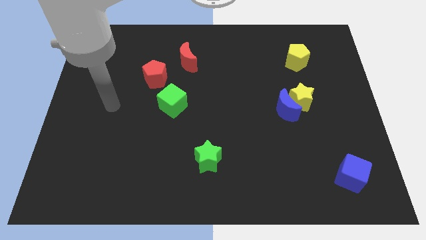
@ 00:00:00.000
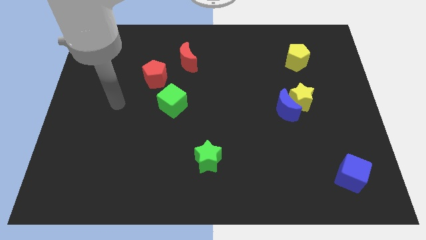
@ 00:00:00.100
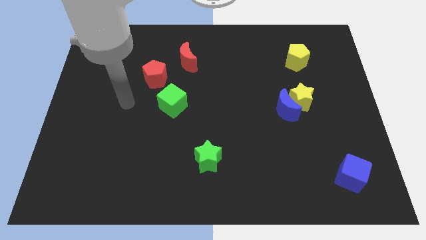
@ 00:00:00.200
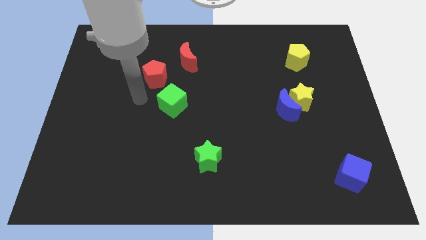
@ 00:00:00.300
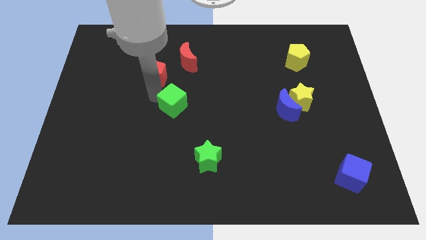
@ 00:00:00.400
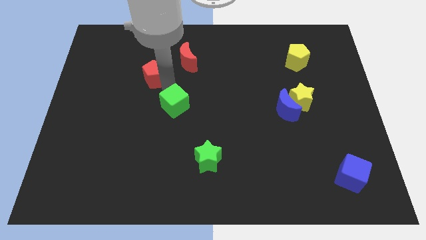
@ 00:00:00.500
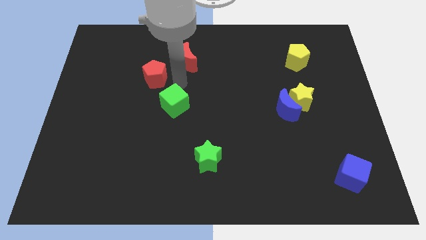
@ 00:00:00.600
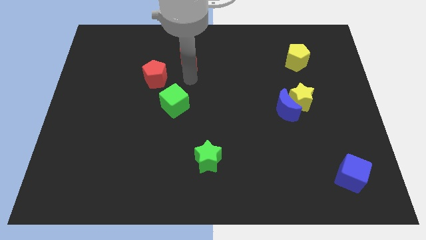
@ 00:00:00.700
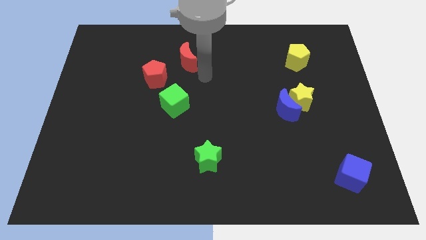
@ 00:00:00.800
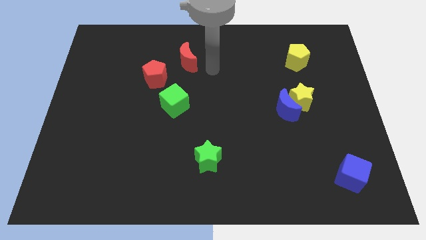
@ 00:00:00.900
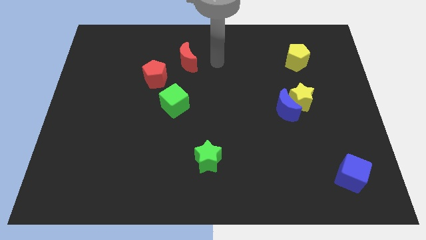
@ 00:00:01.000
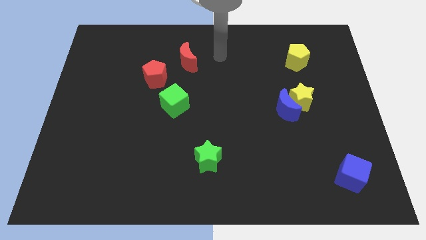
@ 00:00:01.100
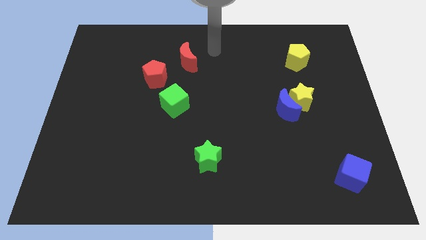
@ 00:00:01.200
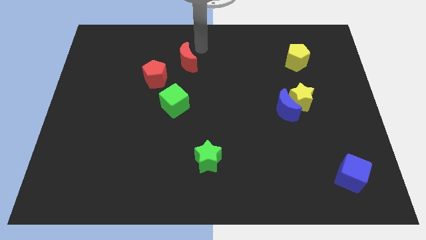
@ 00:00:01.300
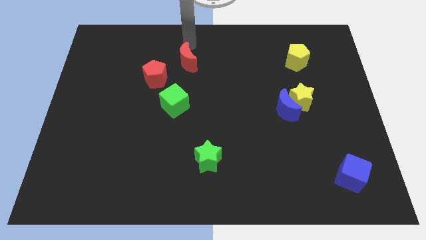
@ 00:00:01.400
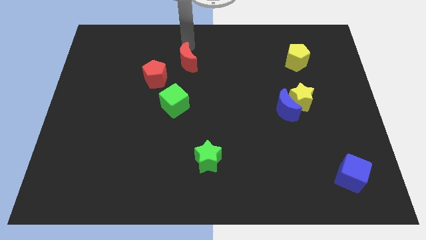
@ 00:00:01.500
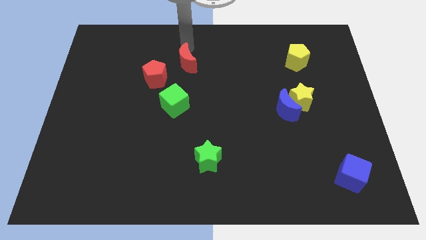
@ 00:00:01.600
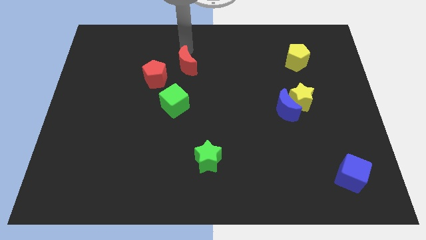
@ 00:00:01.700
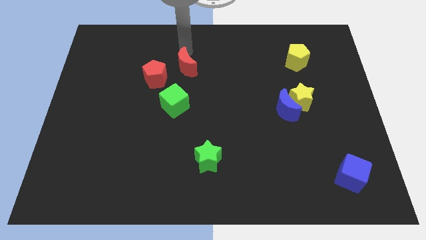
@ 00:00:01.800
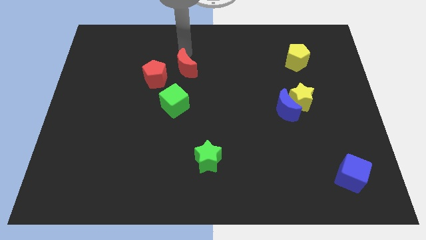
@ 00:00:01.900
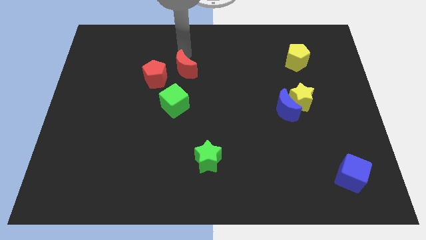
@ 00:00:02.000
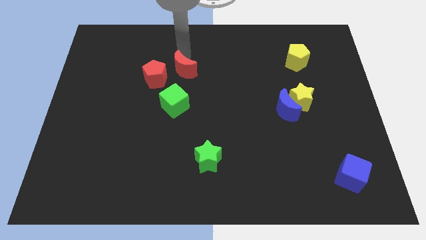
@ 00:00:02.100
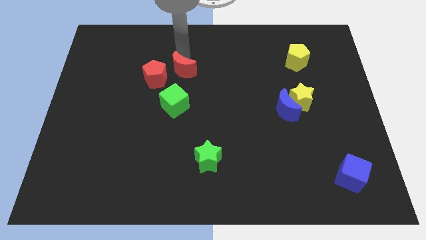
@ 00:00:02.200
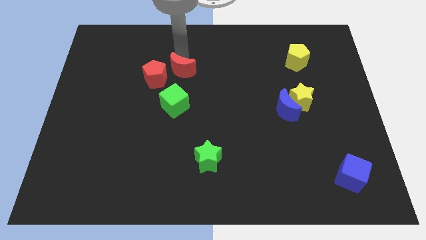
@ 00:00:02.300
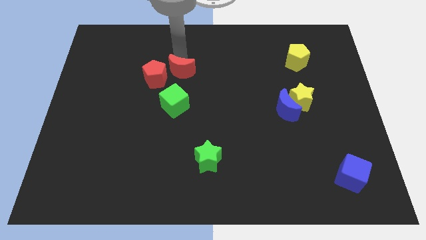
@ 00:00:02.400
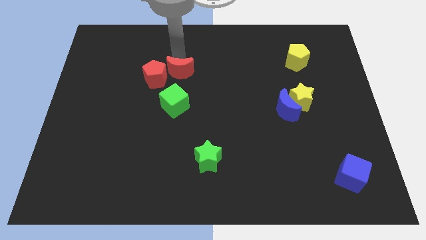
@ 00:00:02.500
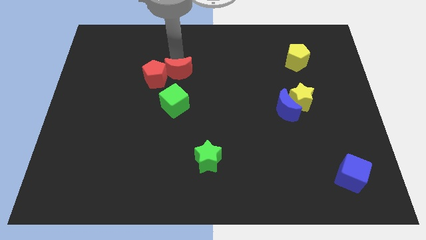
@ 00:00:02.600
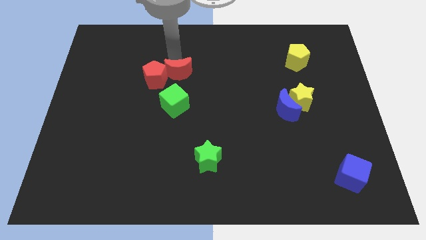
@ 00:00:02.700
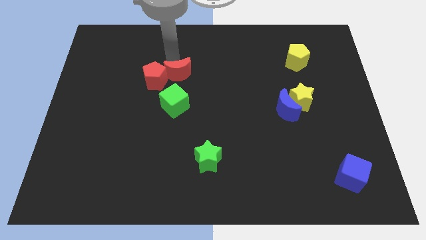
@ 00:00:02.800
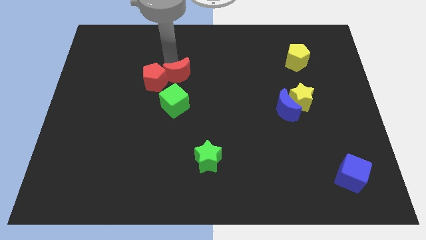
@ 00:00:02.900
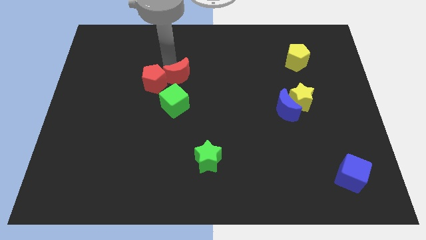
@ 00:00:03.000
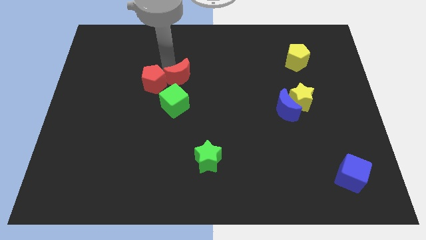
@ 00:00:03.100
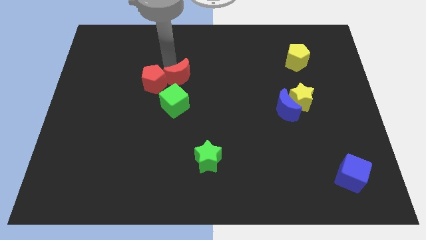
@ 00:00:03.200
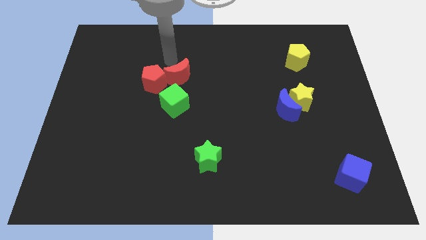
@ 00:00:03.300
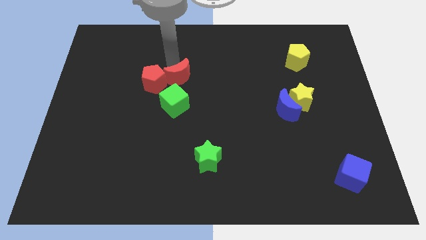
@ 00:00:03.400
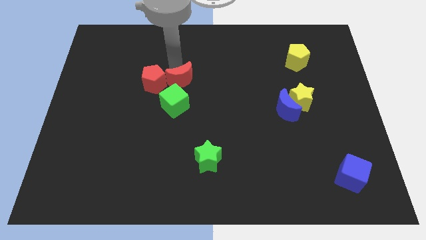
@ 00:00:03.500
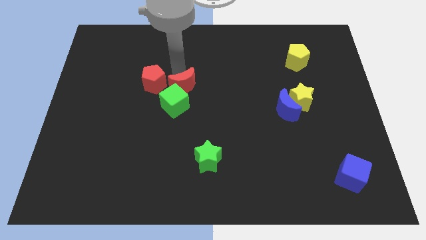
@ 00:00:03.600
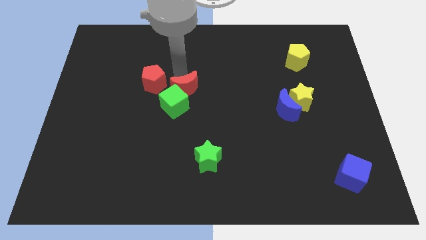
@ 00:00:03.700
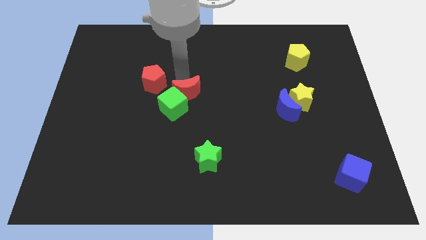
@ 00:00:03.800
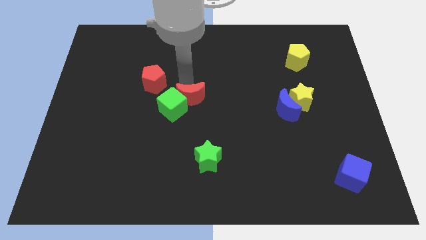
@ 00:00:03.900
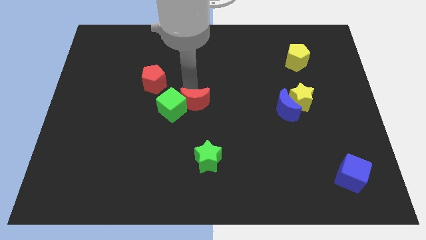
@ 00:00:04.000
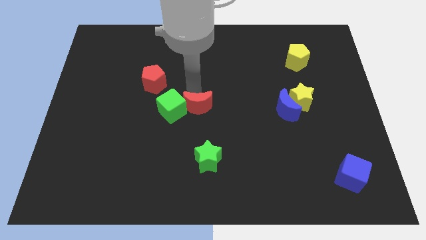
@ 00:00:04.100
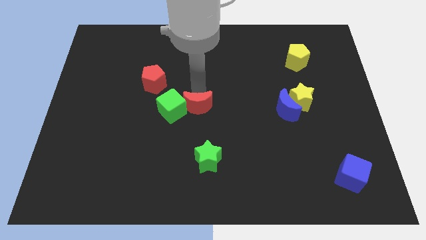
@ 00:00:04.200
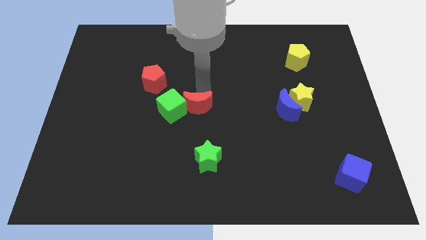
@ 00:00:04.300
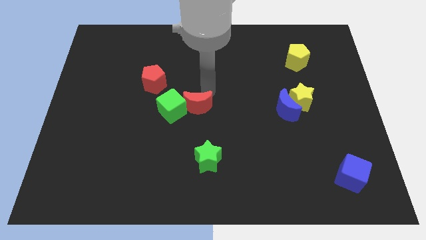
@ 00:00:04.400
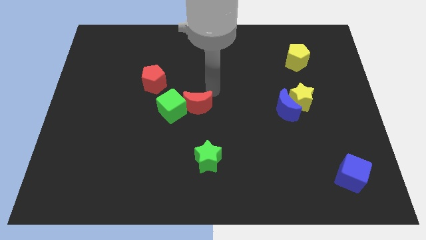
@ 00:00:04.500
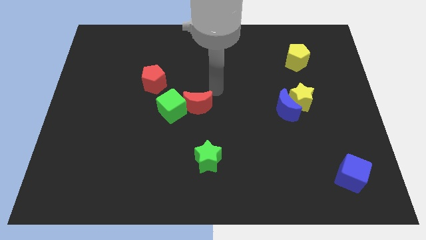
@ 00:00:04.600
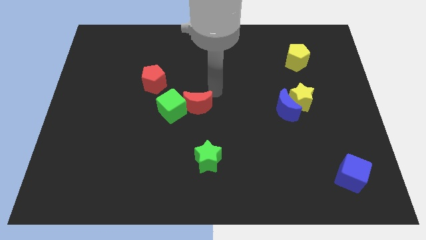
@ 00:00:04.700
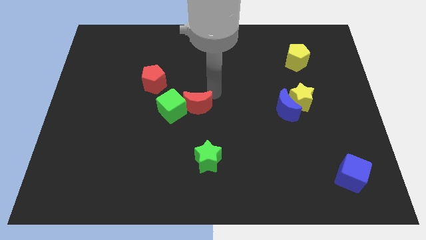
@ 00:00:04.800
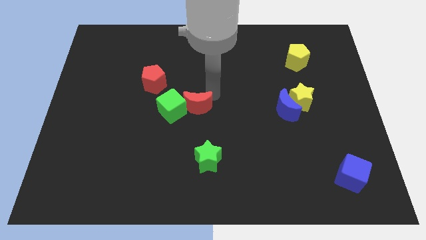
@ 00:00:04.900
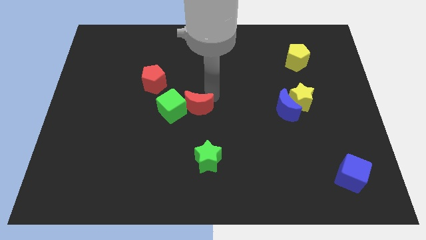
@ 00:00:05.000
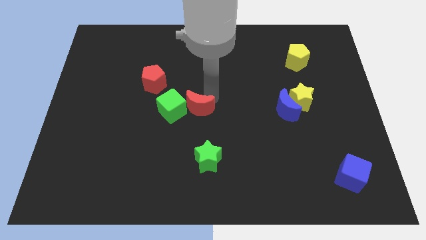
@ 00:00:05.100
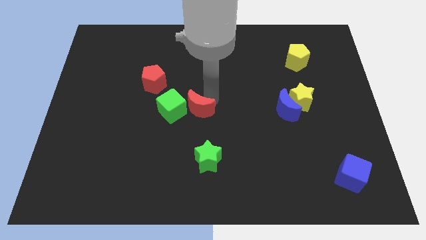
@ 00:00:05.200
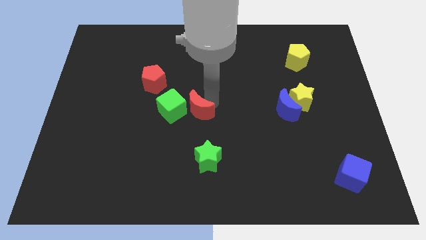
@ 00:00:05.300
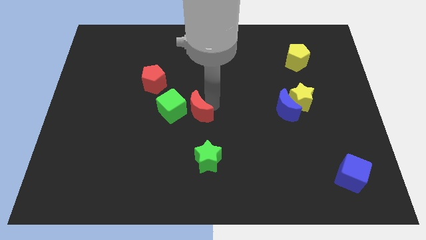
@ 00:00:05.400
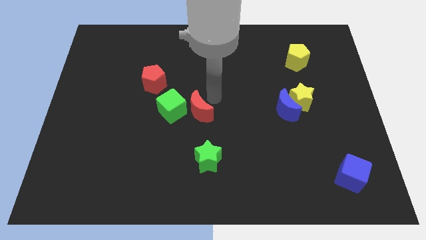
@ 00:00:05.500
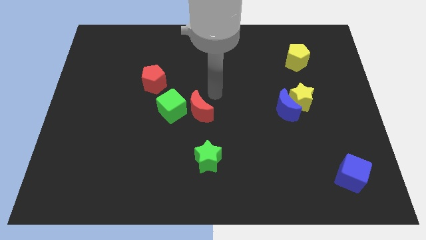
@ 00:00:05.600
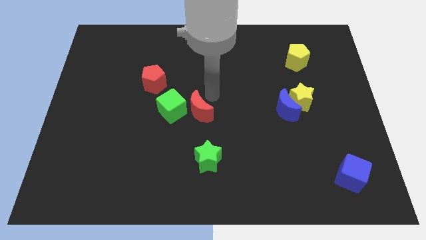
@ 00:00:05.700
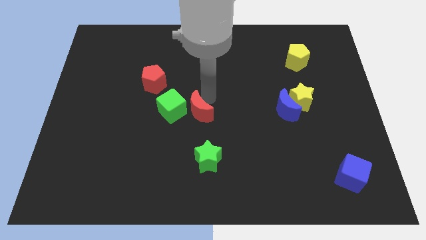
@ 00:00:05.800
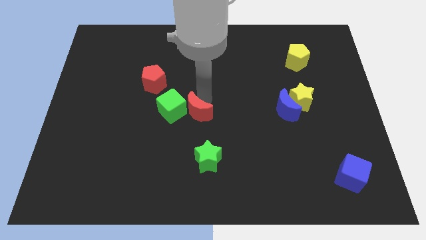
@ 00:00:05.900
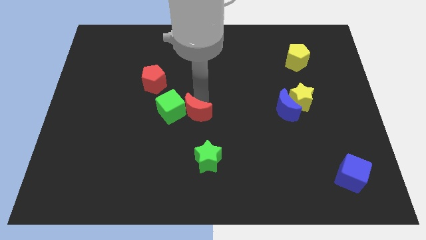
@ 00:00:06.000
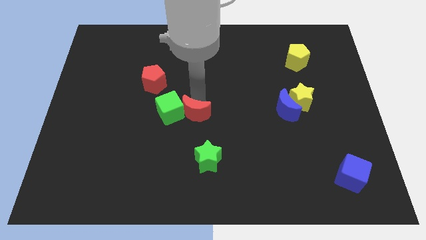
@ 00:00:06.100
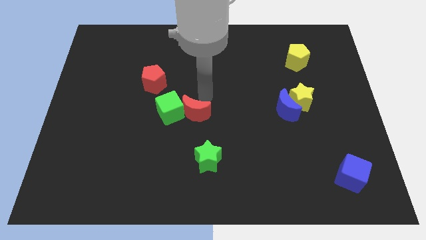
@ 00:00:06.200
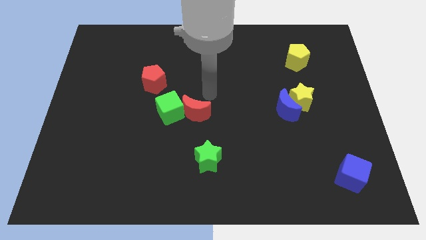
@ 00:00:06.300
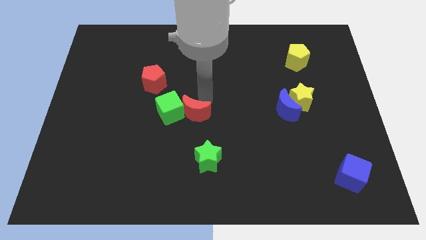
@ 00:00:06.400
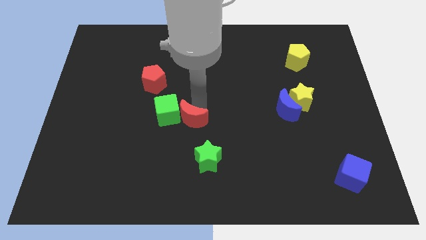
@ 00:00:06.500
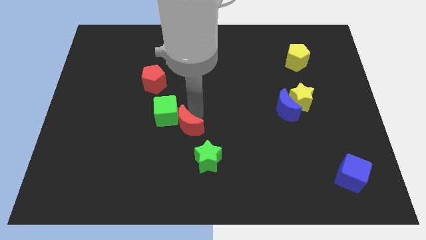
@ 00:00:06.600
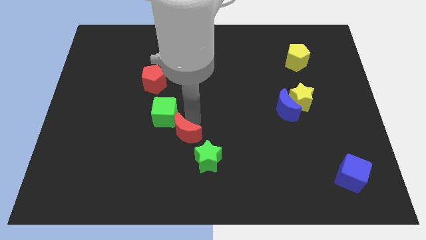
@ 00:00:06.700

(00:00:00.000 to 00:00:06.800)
move the red moon below the green cube
